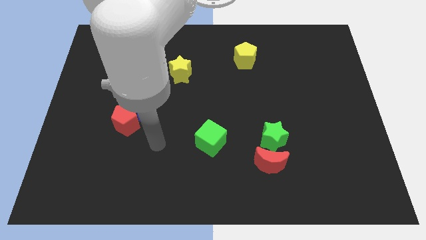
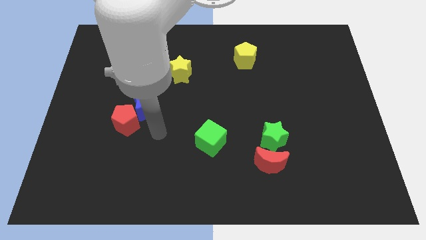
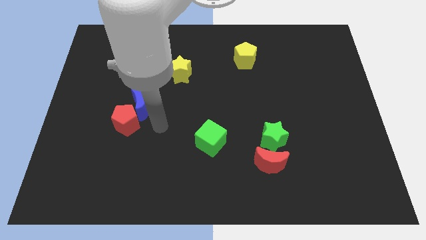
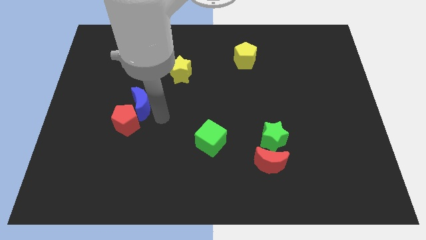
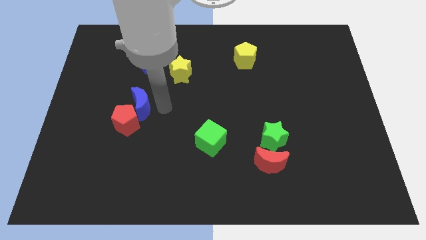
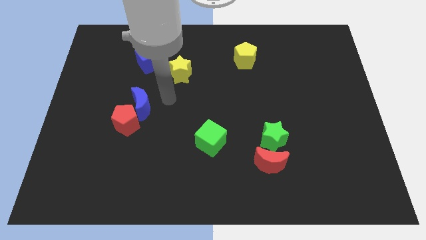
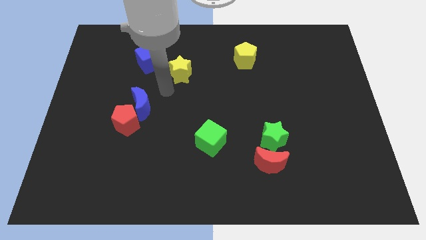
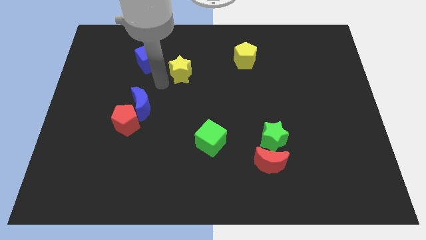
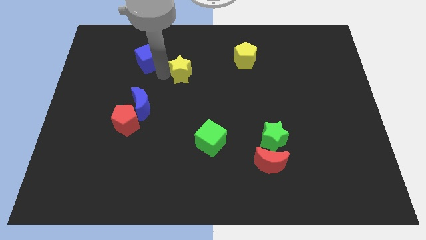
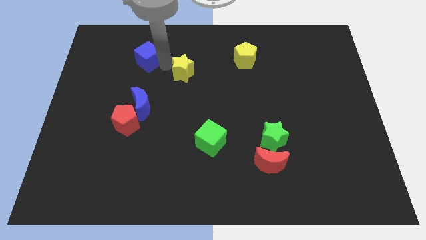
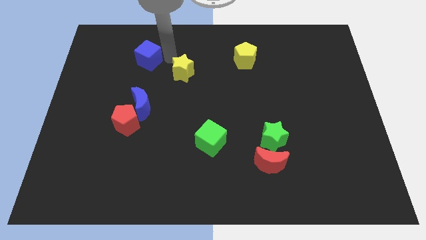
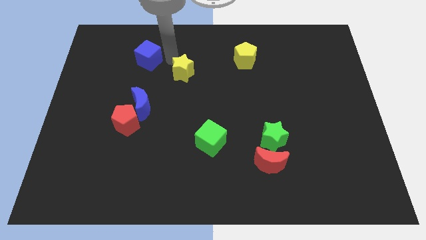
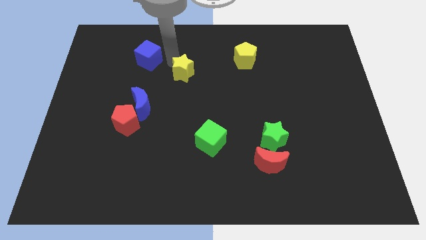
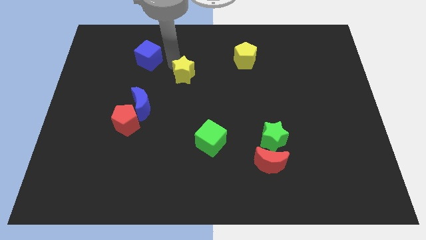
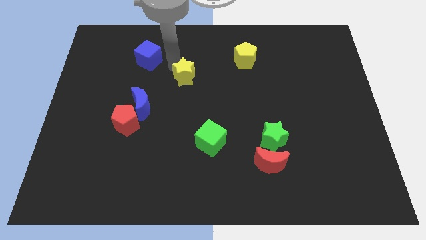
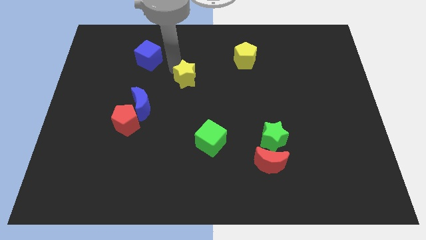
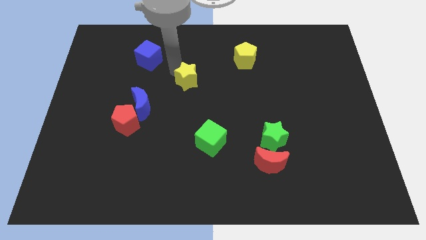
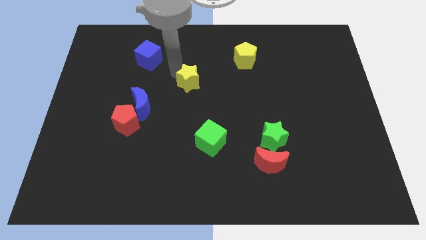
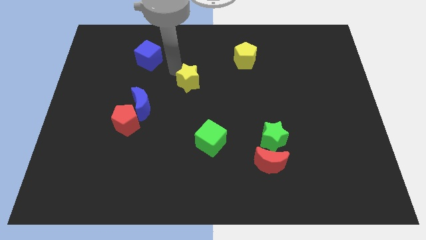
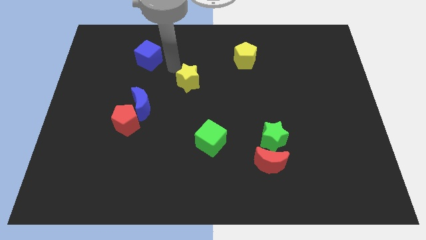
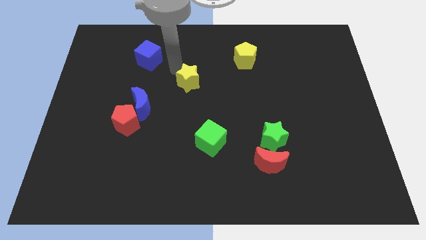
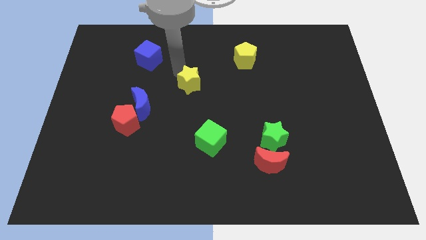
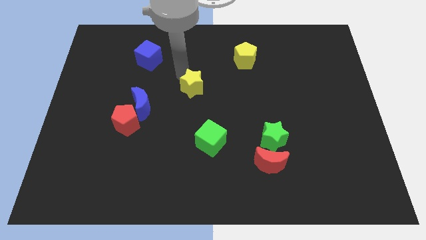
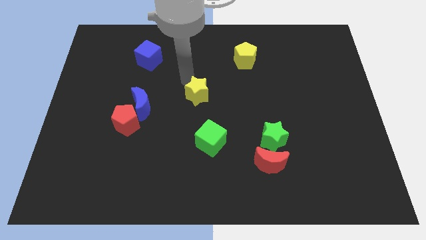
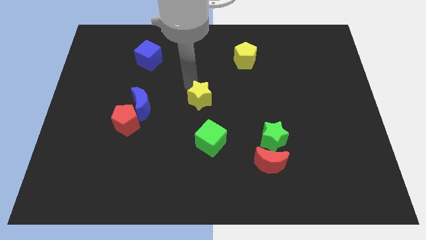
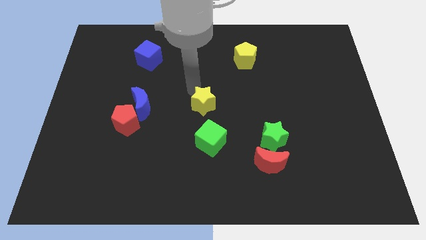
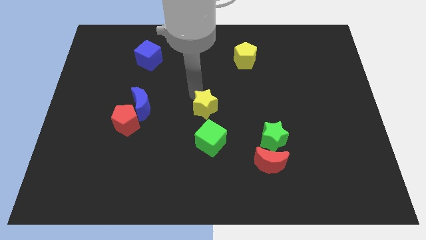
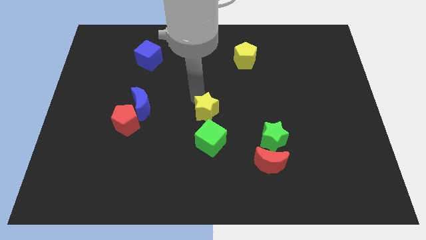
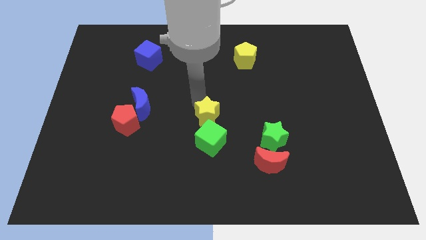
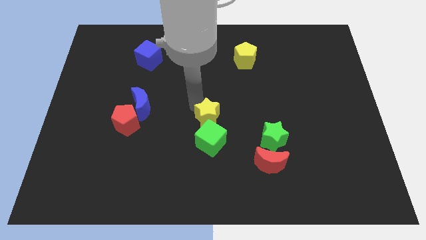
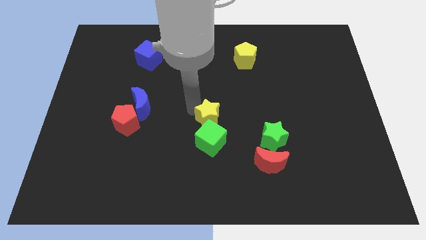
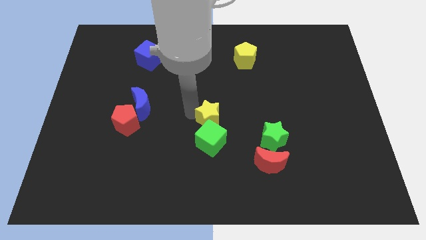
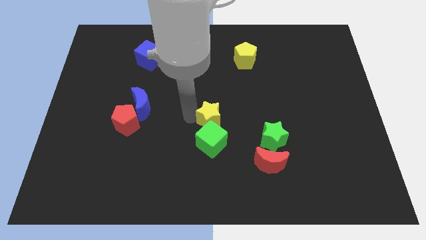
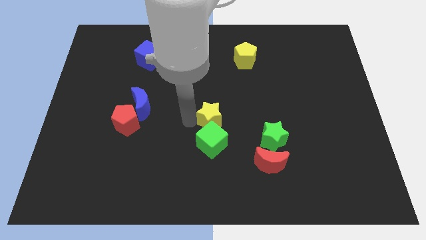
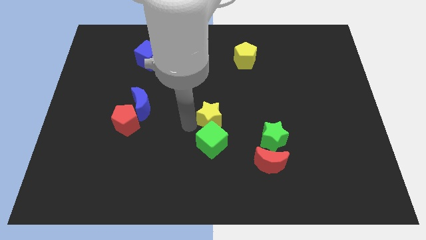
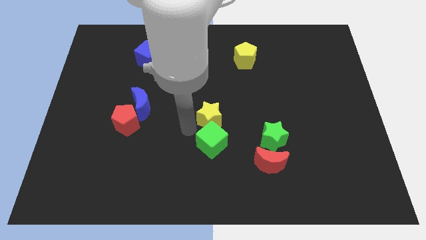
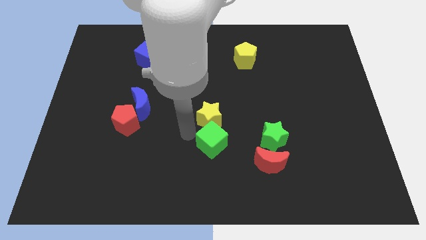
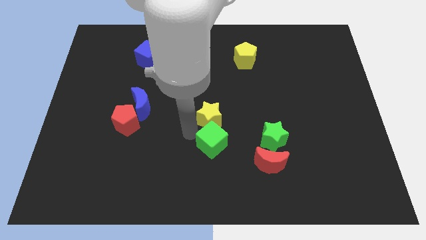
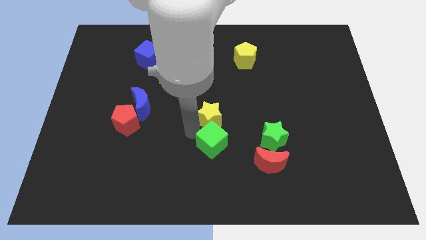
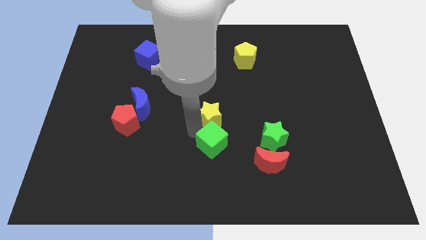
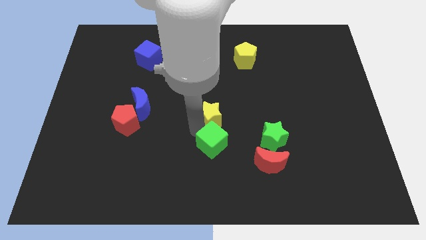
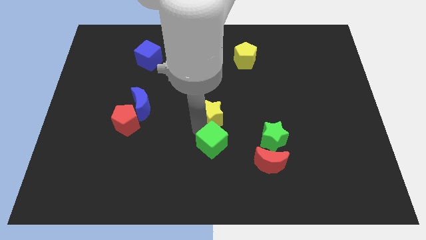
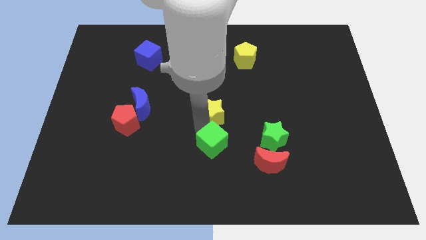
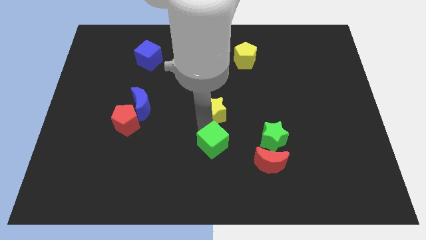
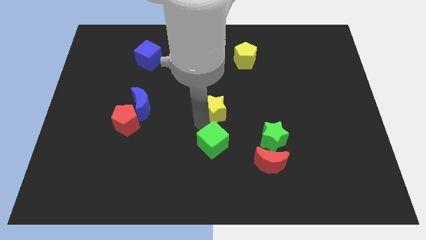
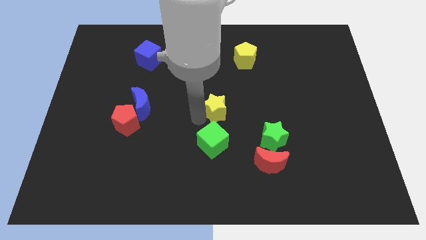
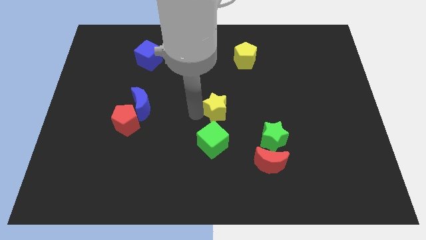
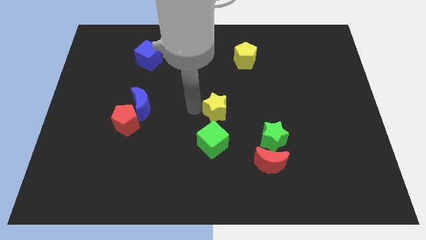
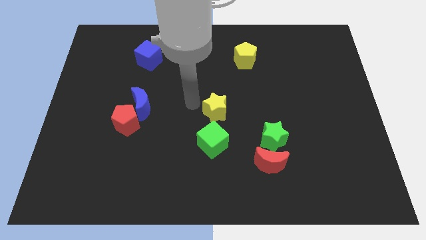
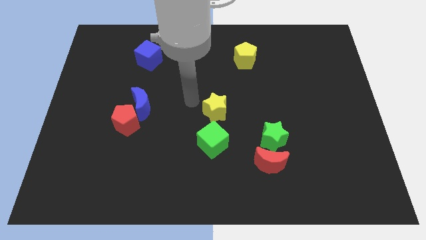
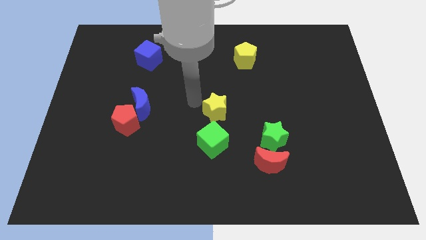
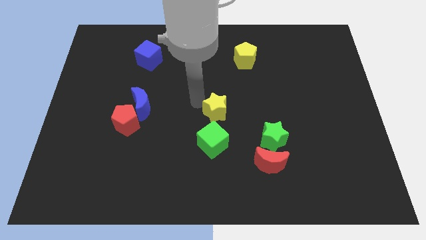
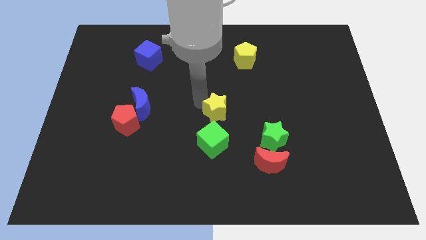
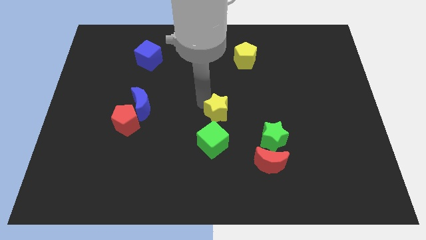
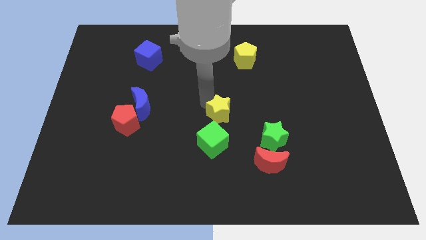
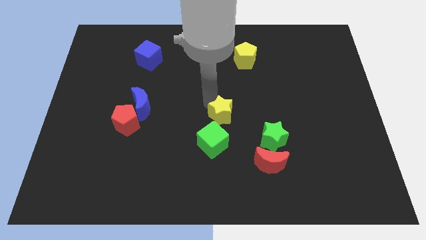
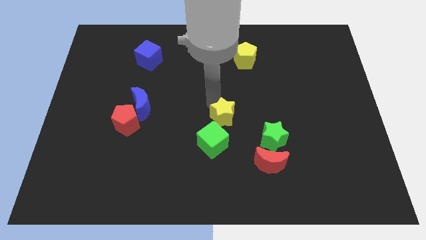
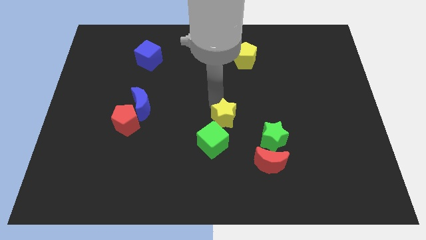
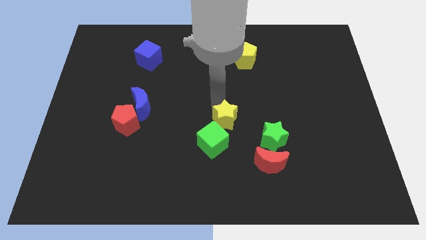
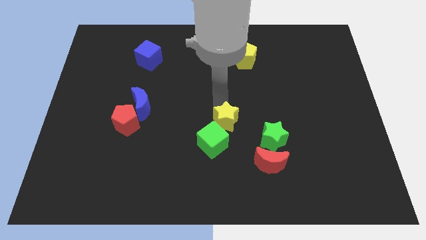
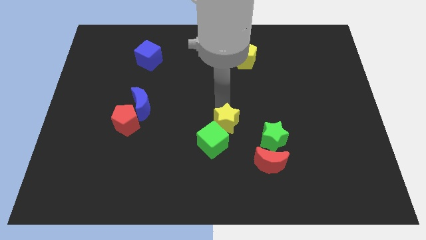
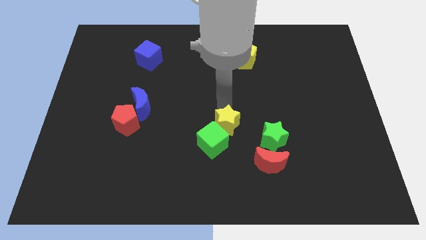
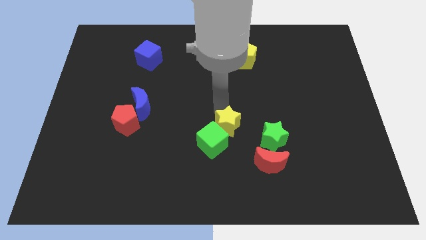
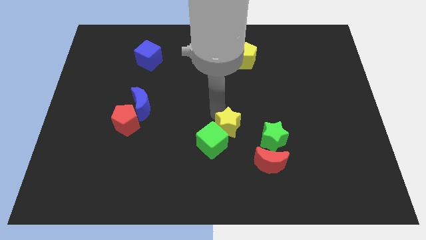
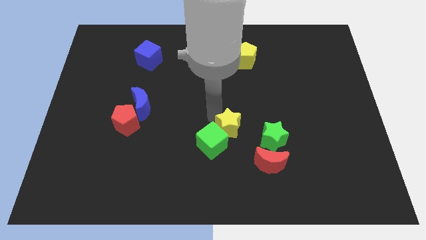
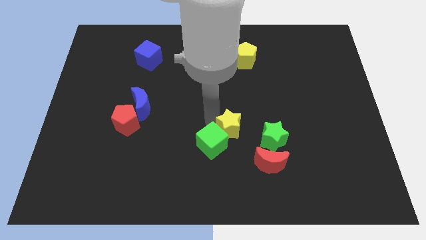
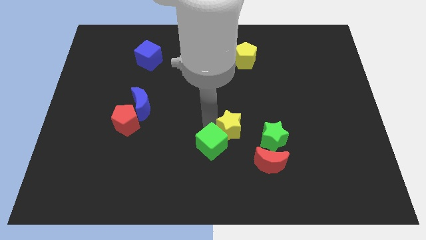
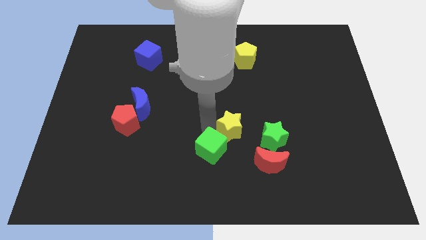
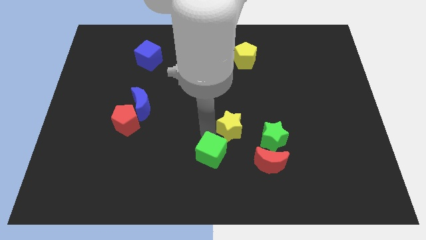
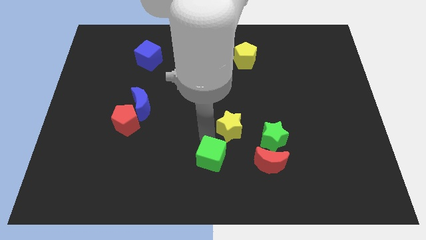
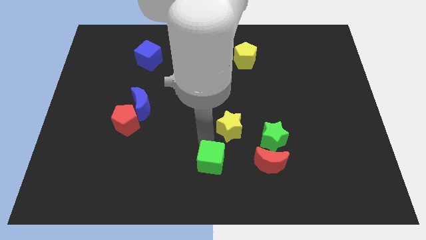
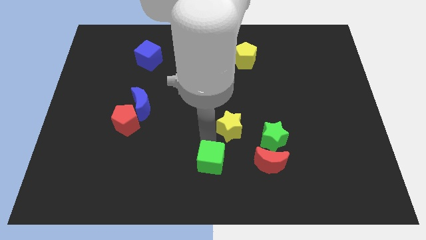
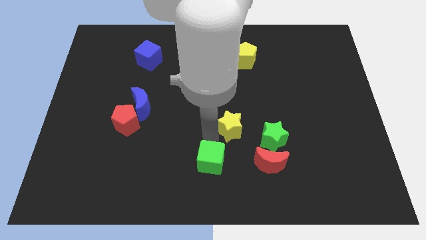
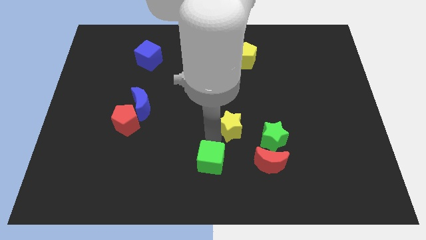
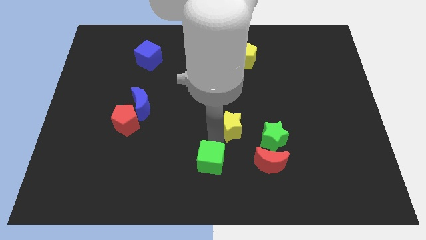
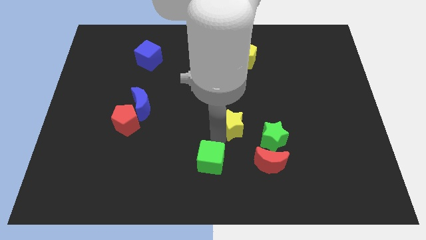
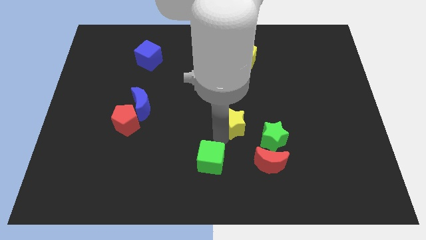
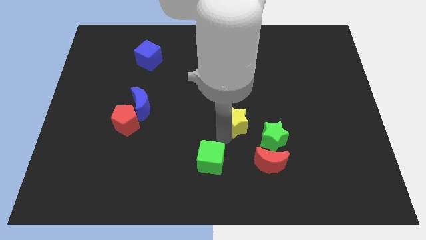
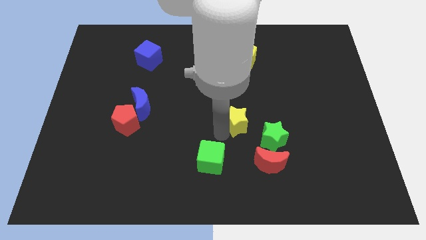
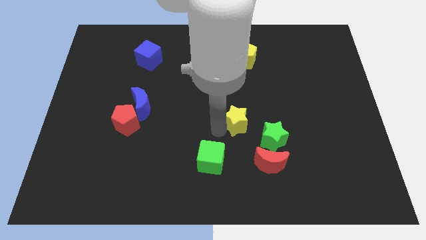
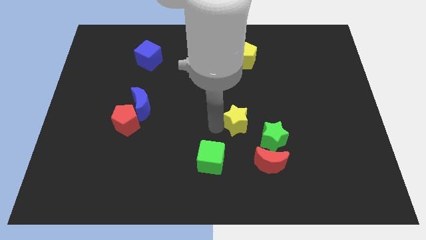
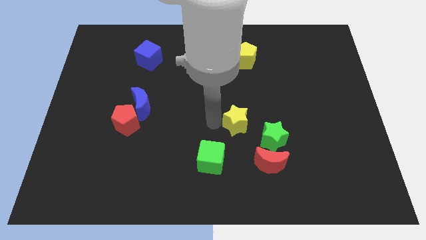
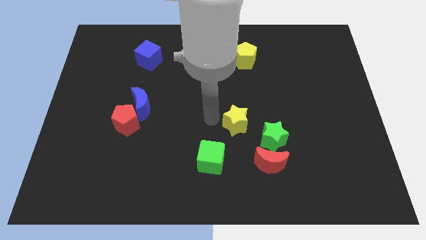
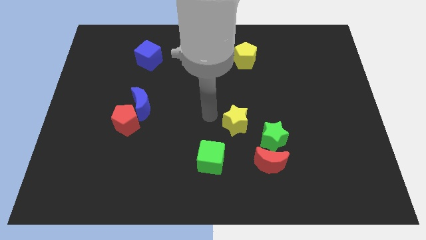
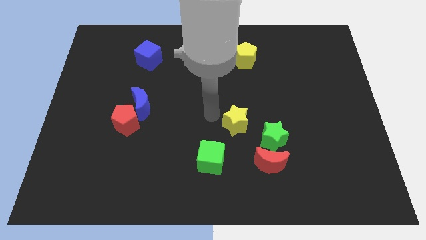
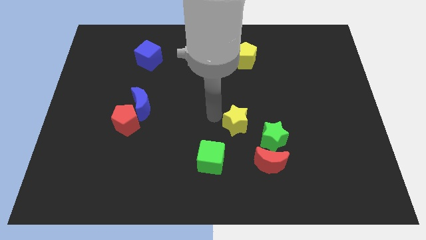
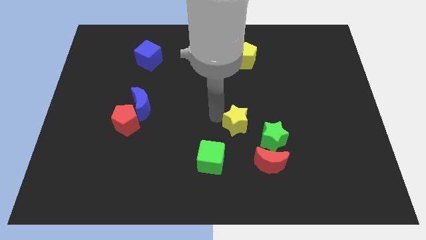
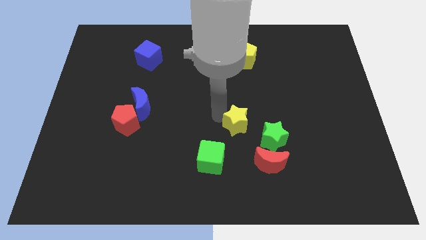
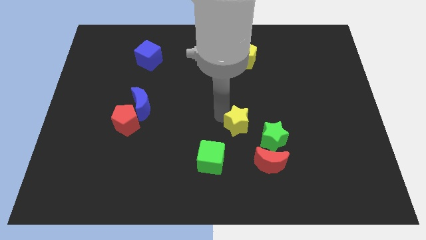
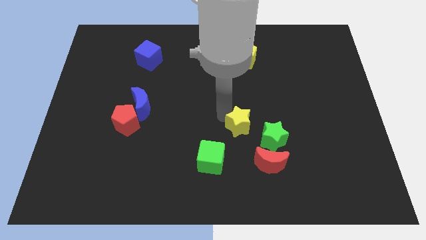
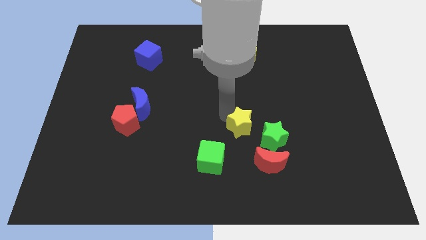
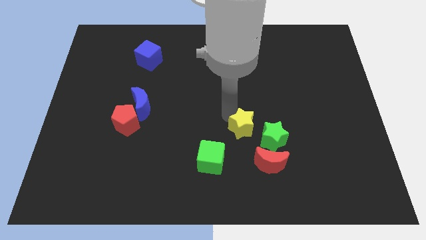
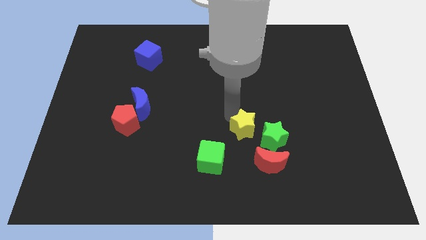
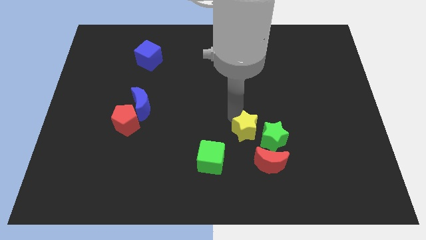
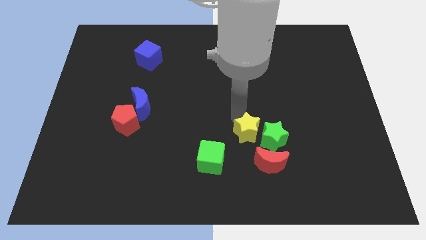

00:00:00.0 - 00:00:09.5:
push the yellow star towards the green star
